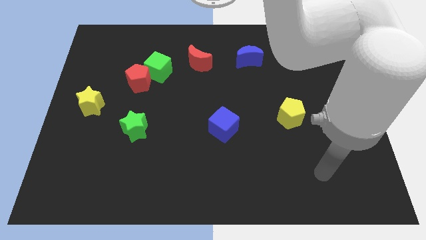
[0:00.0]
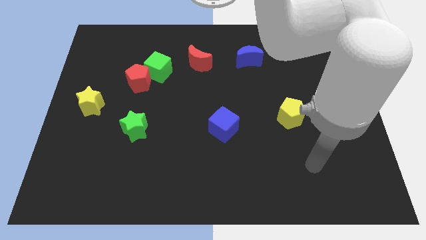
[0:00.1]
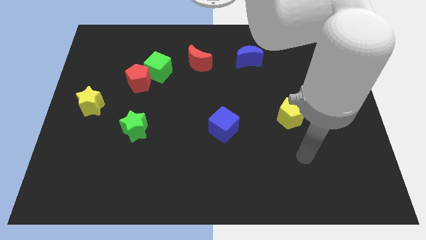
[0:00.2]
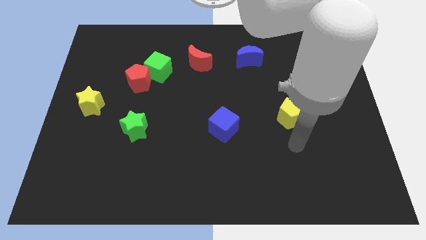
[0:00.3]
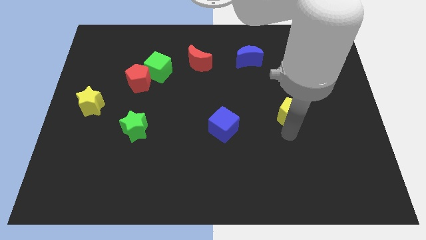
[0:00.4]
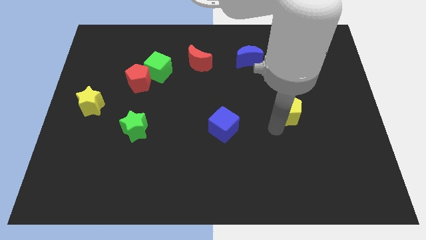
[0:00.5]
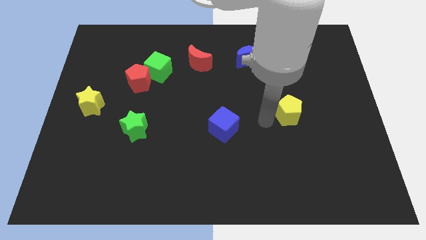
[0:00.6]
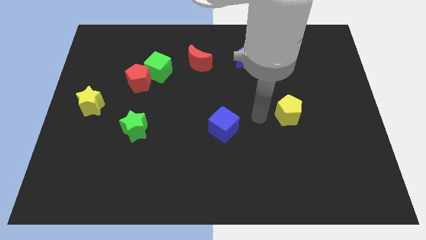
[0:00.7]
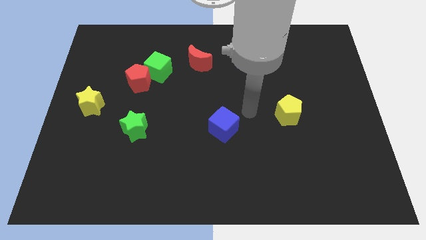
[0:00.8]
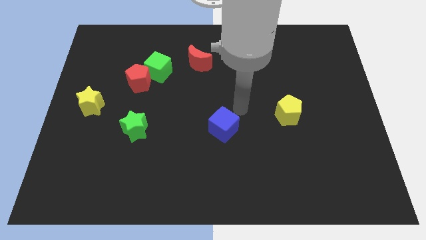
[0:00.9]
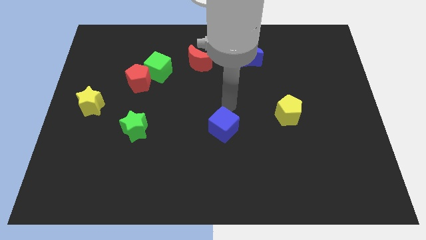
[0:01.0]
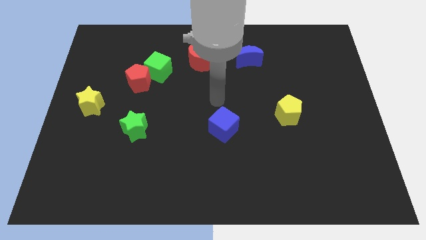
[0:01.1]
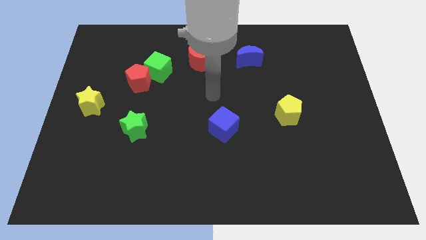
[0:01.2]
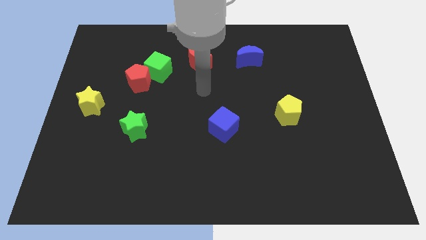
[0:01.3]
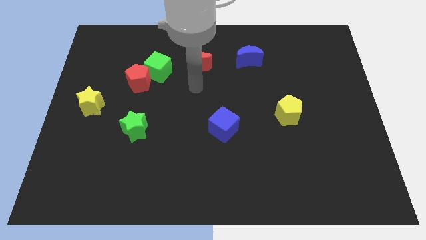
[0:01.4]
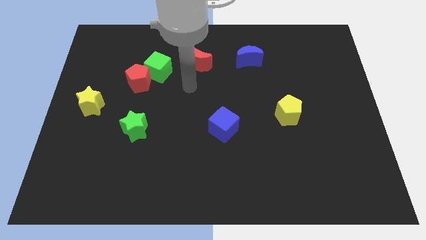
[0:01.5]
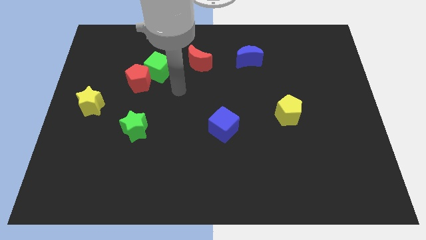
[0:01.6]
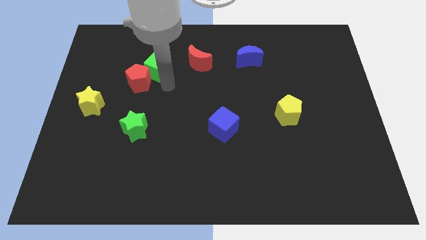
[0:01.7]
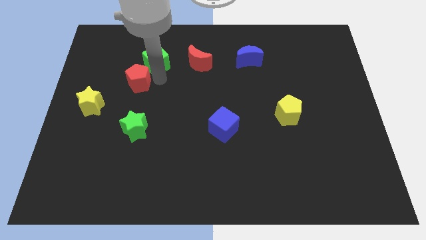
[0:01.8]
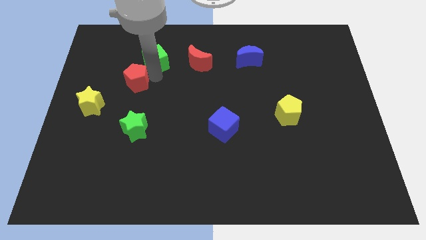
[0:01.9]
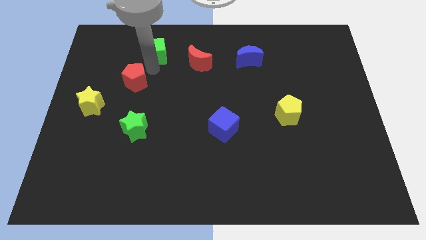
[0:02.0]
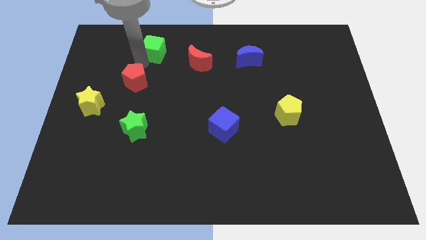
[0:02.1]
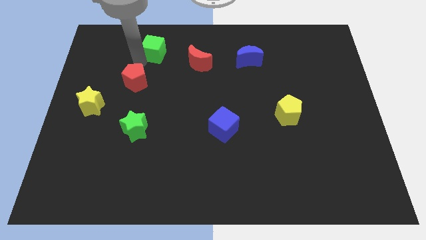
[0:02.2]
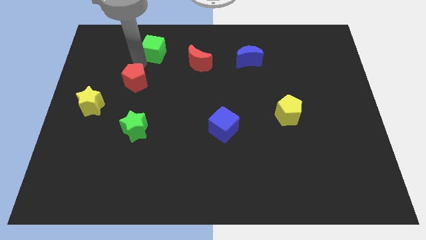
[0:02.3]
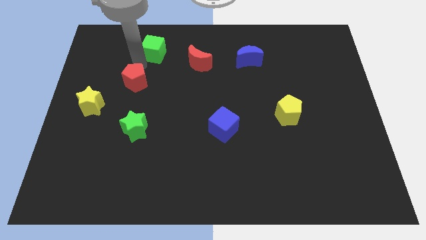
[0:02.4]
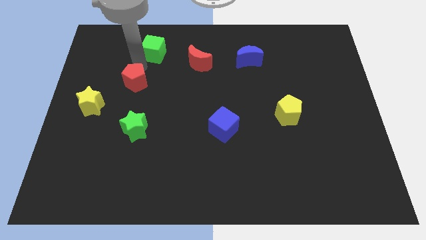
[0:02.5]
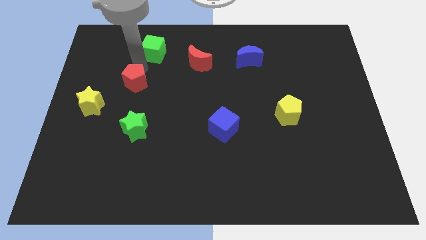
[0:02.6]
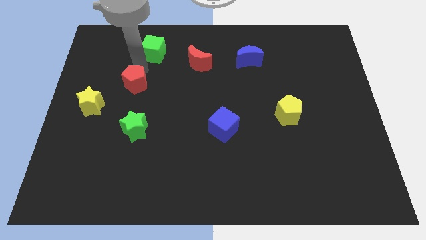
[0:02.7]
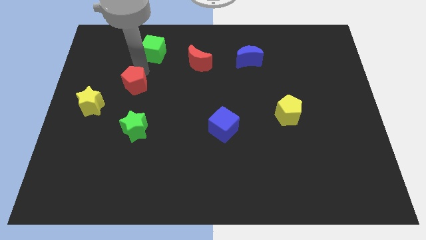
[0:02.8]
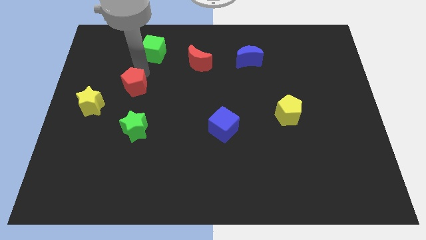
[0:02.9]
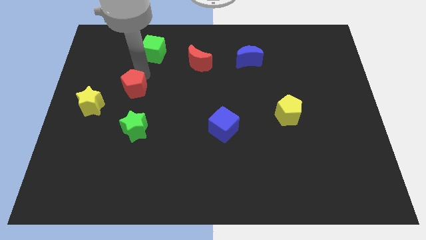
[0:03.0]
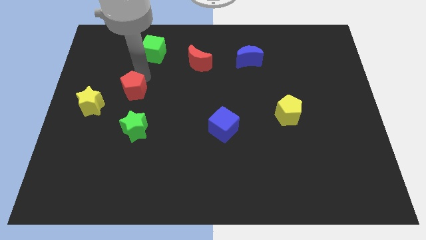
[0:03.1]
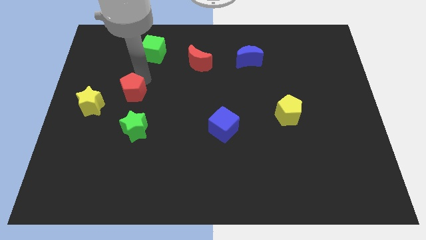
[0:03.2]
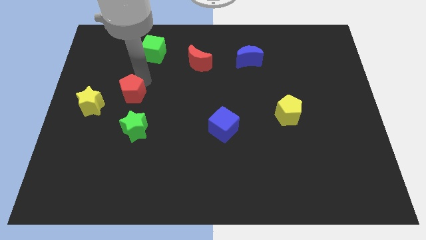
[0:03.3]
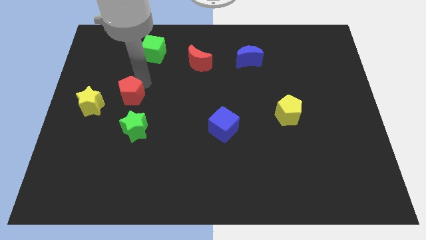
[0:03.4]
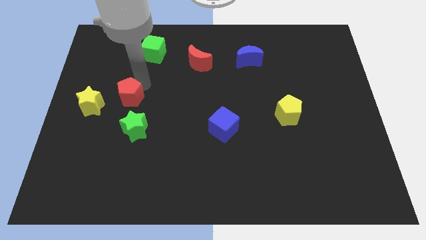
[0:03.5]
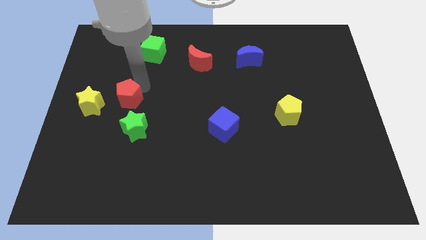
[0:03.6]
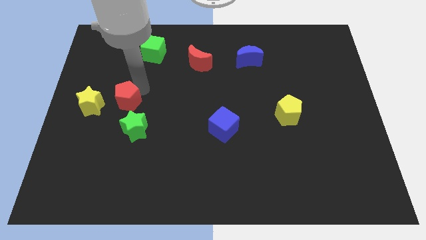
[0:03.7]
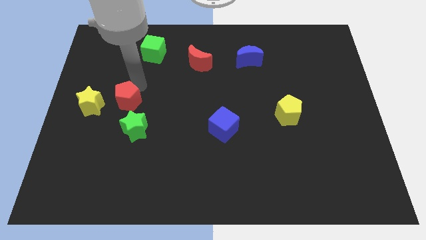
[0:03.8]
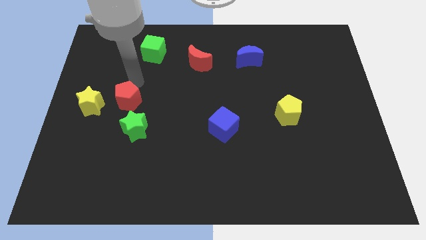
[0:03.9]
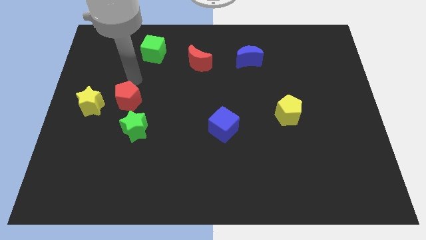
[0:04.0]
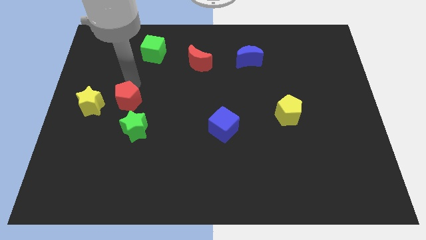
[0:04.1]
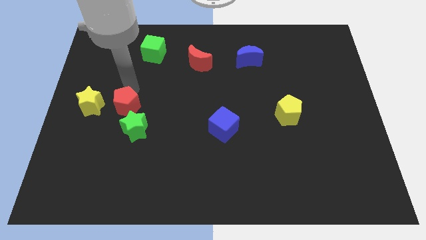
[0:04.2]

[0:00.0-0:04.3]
slightly push the red pentagon downwards

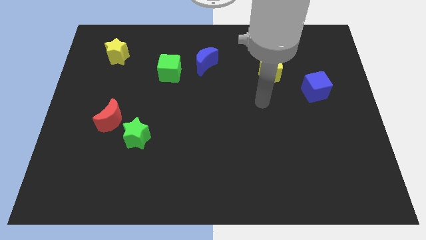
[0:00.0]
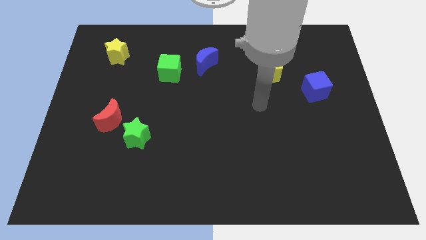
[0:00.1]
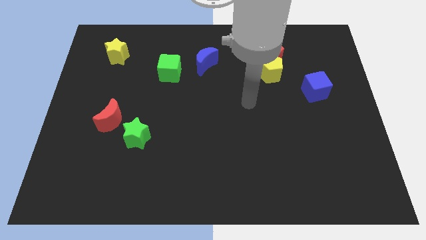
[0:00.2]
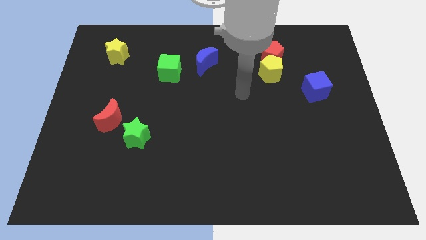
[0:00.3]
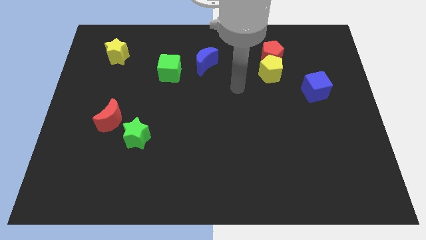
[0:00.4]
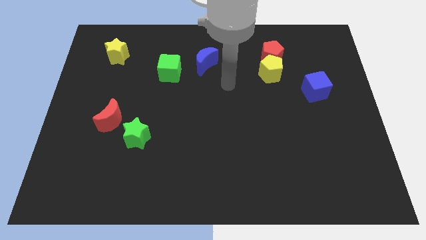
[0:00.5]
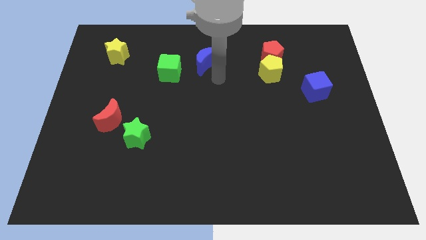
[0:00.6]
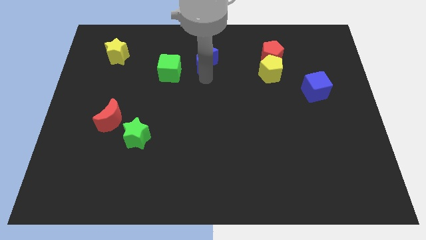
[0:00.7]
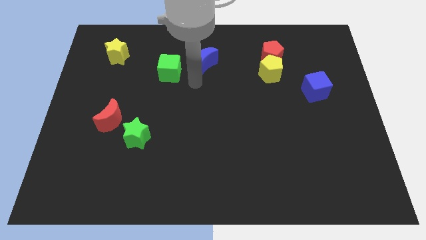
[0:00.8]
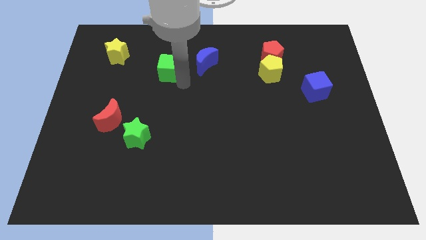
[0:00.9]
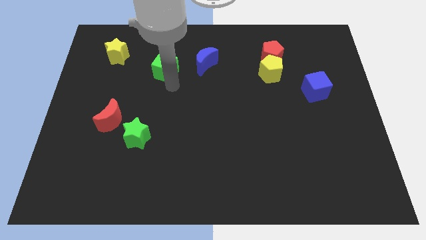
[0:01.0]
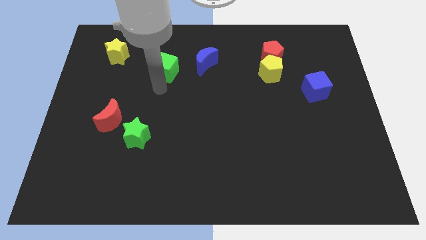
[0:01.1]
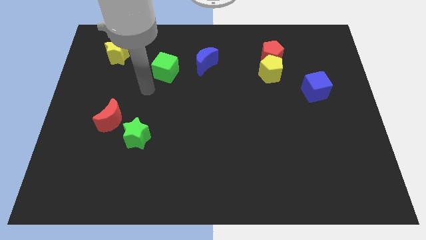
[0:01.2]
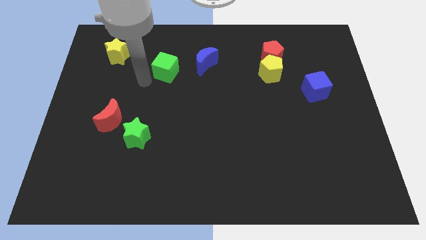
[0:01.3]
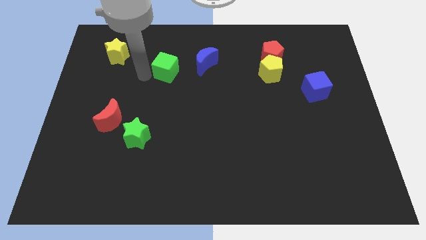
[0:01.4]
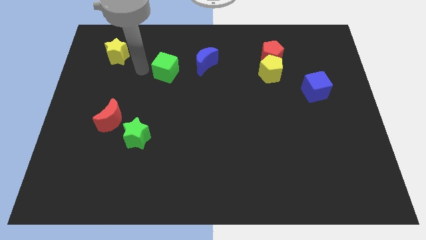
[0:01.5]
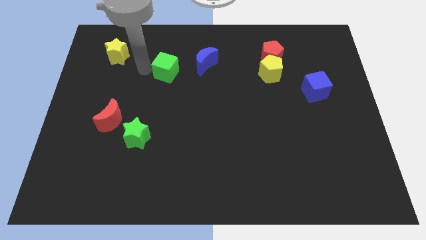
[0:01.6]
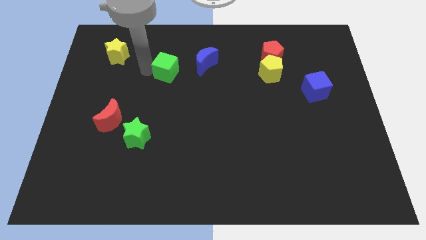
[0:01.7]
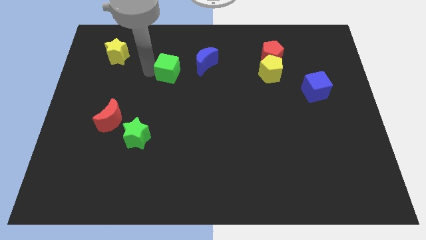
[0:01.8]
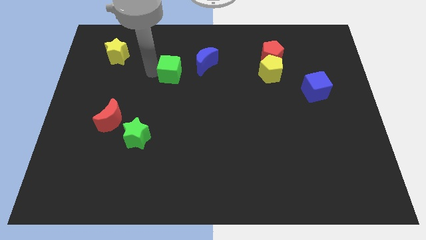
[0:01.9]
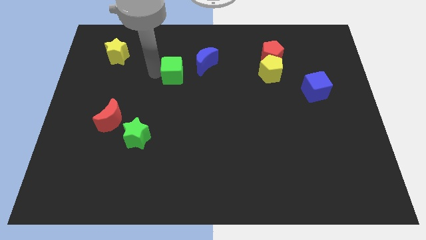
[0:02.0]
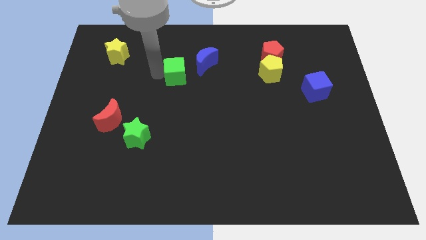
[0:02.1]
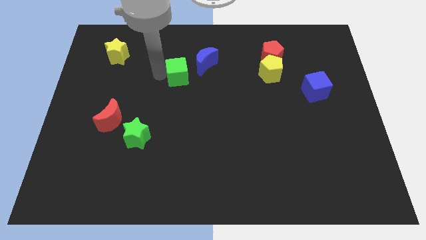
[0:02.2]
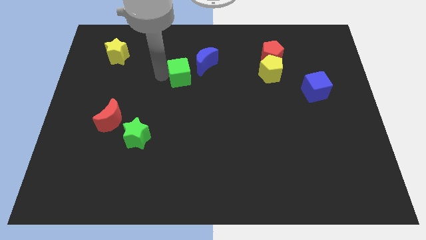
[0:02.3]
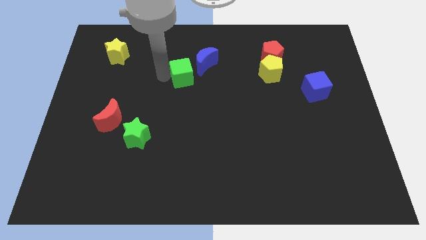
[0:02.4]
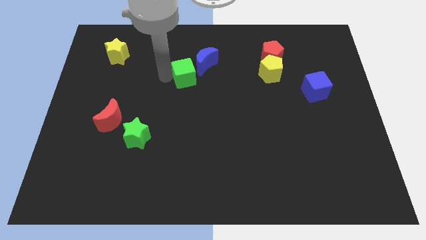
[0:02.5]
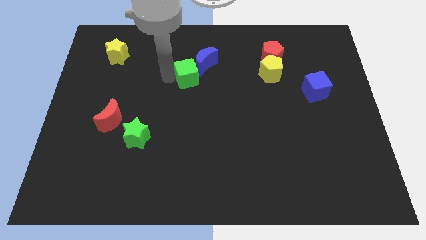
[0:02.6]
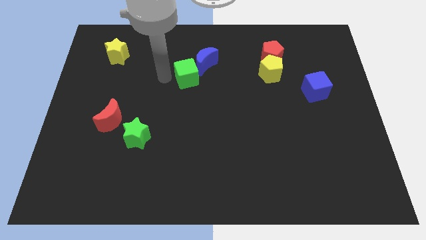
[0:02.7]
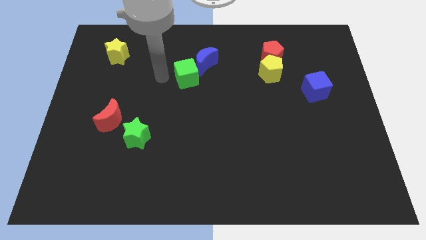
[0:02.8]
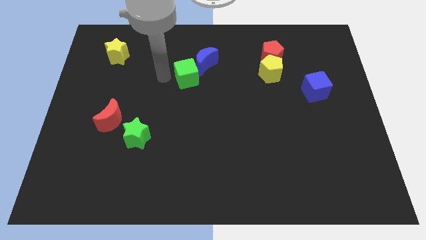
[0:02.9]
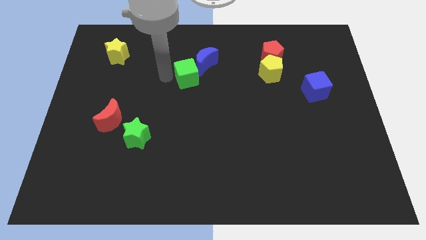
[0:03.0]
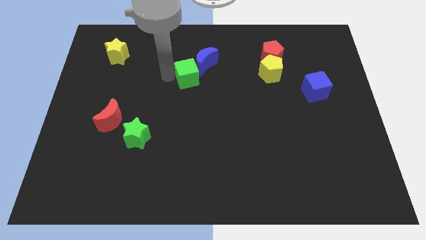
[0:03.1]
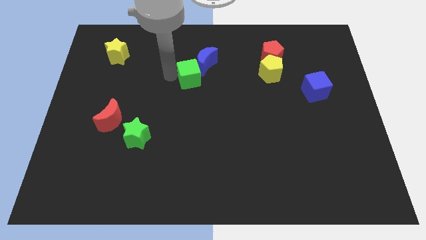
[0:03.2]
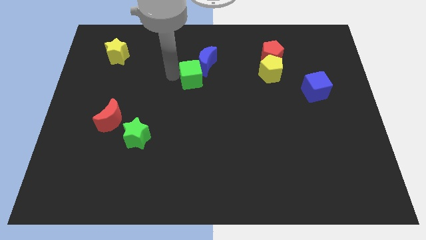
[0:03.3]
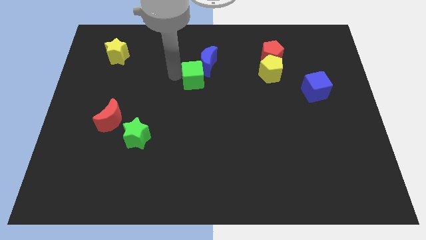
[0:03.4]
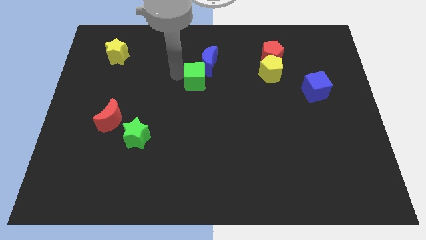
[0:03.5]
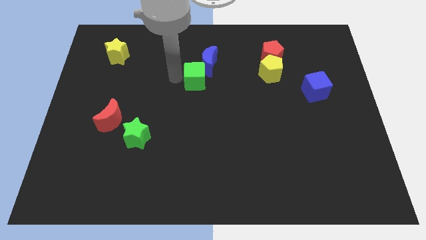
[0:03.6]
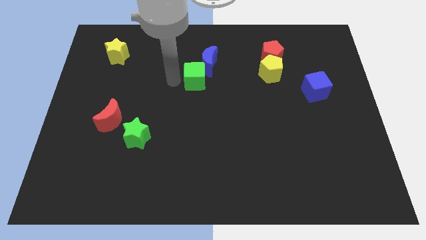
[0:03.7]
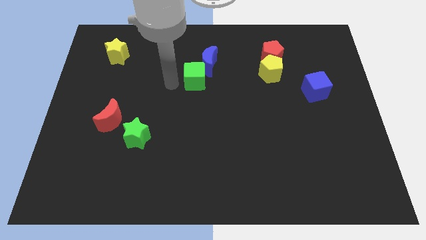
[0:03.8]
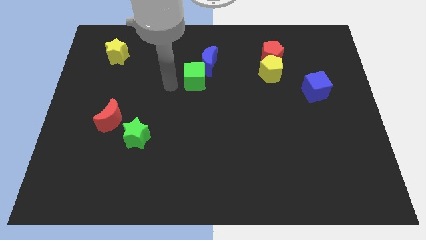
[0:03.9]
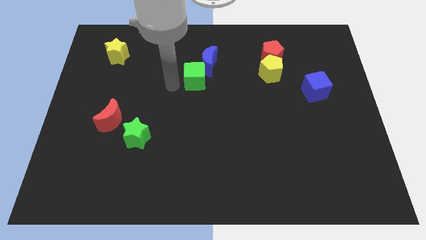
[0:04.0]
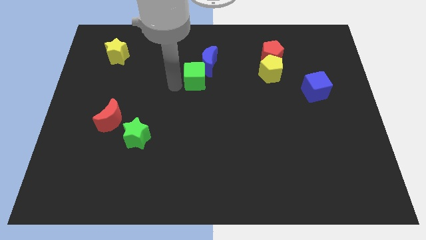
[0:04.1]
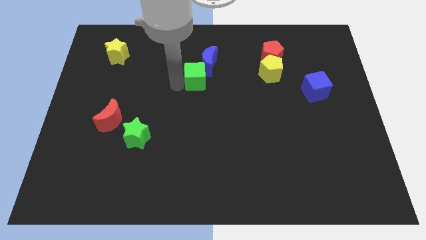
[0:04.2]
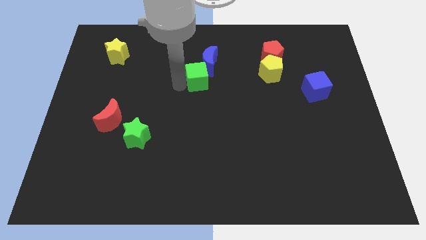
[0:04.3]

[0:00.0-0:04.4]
slide the green cube a little to the right
